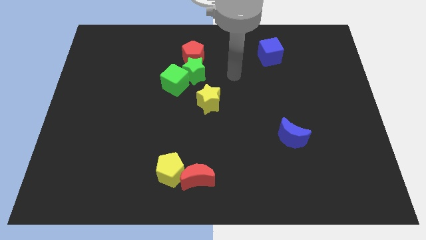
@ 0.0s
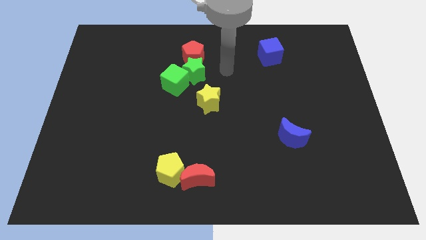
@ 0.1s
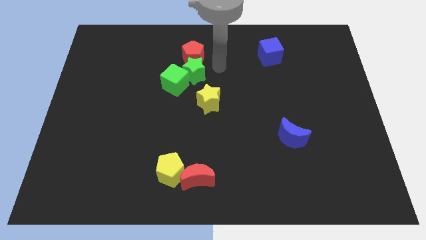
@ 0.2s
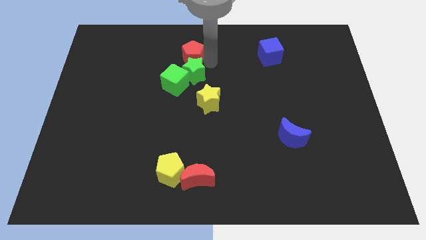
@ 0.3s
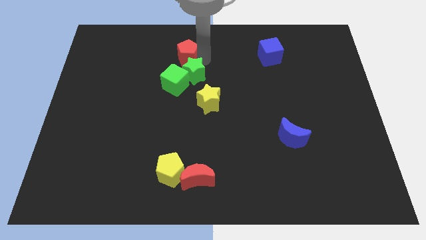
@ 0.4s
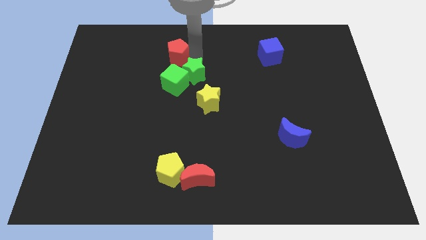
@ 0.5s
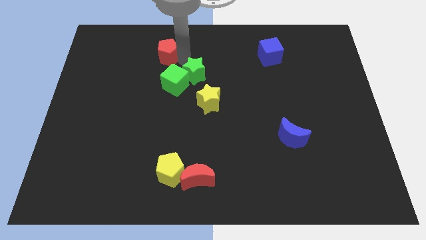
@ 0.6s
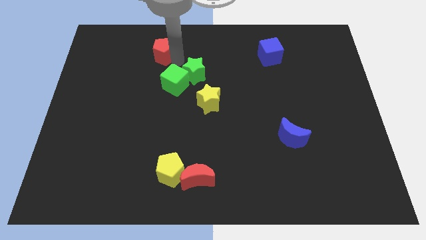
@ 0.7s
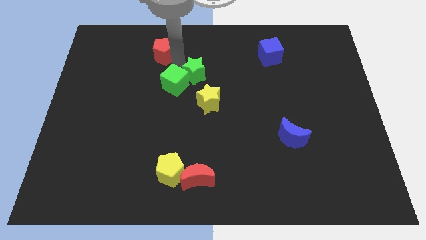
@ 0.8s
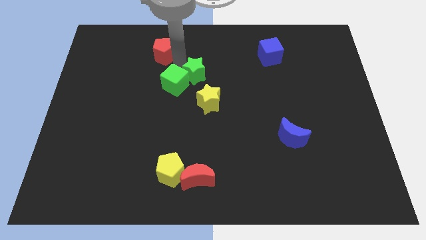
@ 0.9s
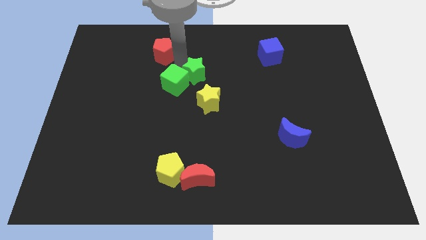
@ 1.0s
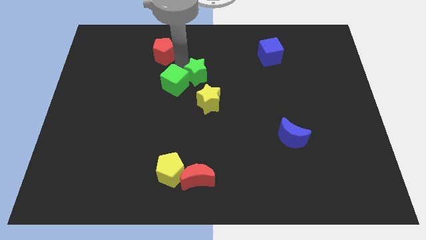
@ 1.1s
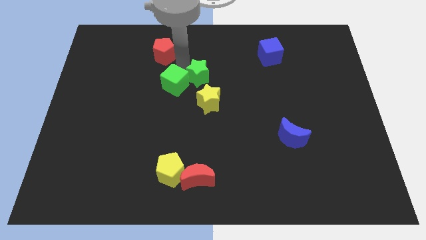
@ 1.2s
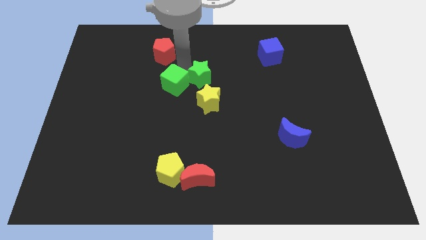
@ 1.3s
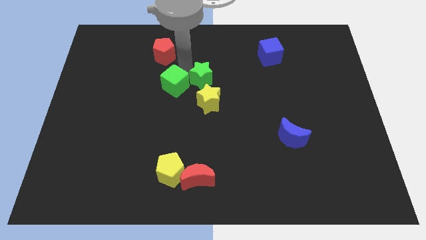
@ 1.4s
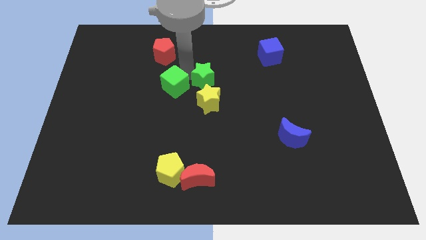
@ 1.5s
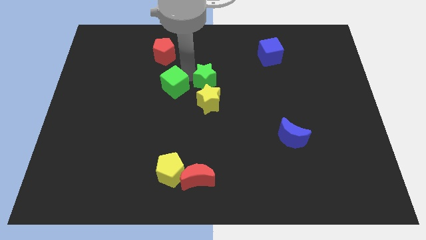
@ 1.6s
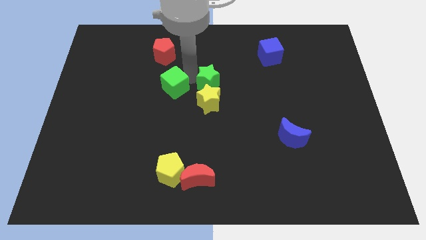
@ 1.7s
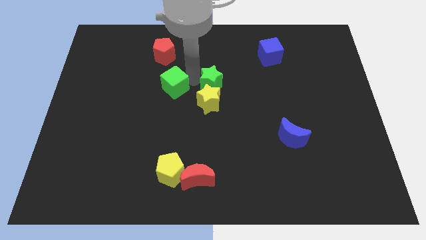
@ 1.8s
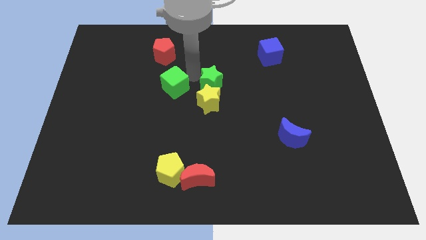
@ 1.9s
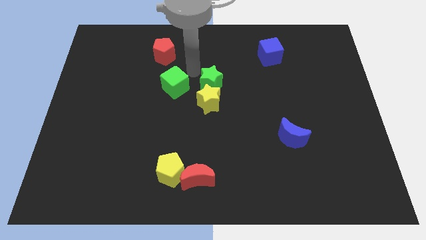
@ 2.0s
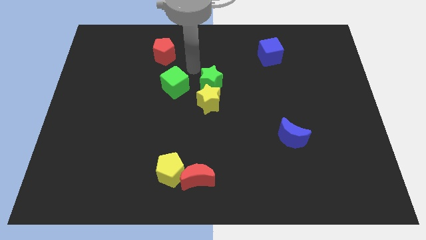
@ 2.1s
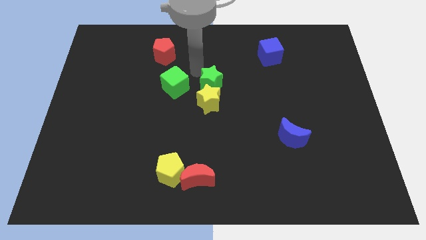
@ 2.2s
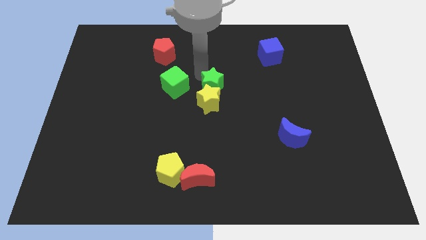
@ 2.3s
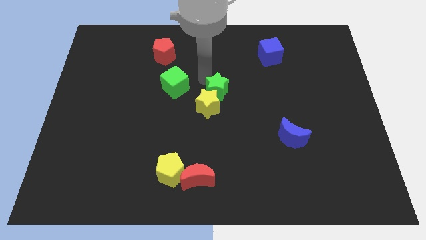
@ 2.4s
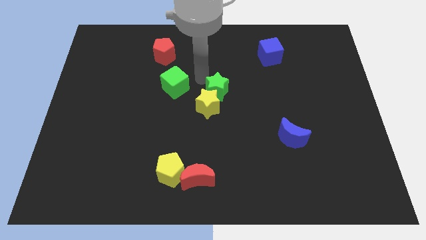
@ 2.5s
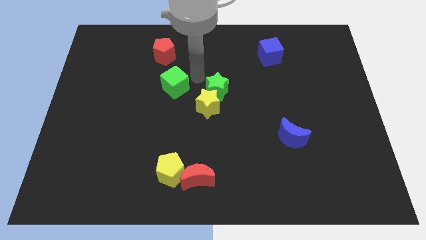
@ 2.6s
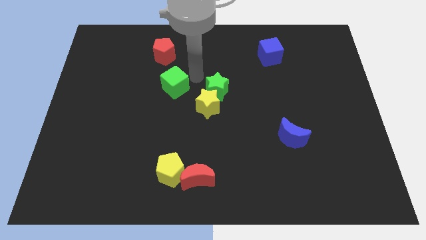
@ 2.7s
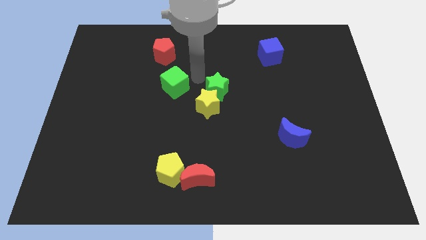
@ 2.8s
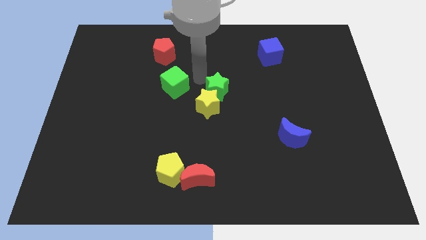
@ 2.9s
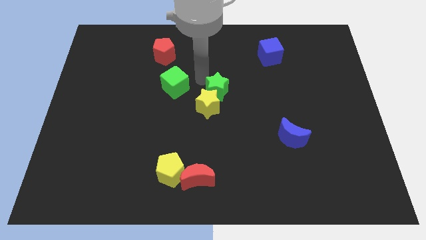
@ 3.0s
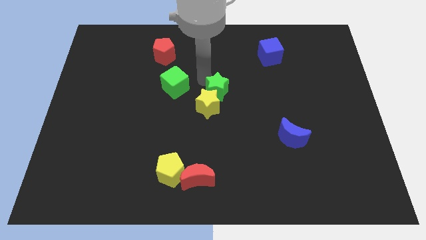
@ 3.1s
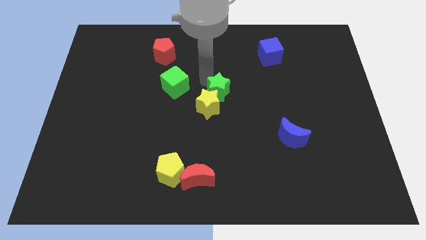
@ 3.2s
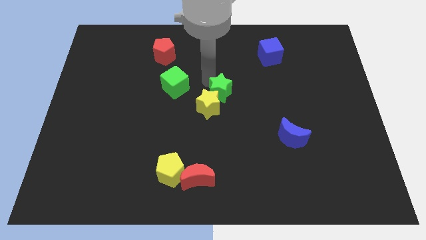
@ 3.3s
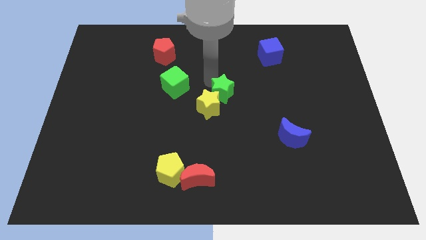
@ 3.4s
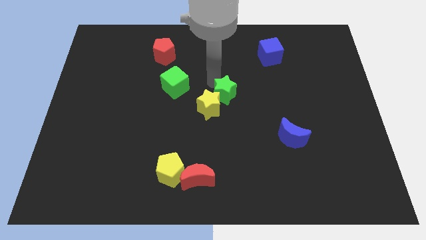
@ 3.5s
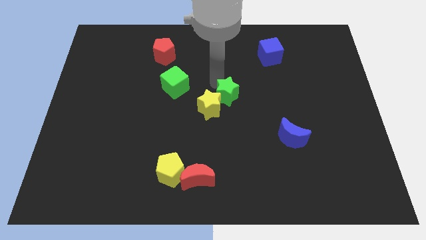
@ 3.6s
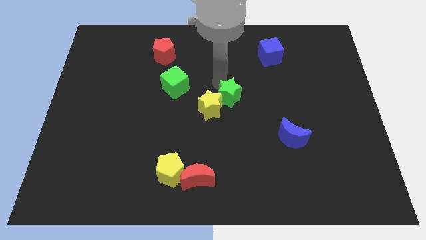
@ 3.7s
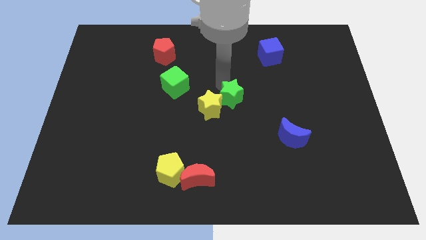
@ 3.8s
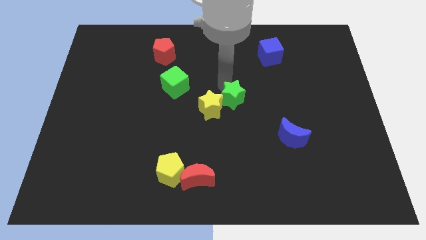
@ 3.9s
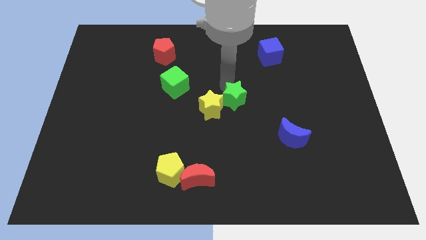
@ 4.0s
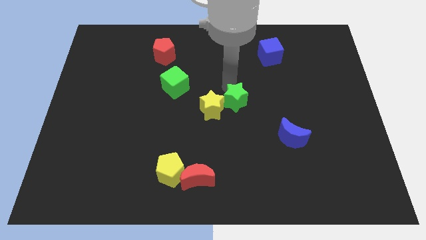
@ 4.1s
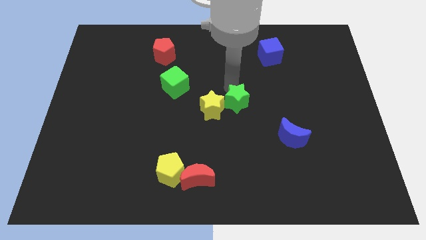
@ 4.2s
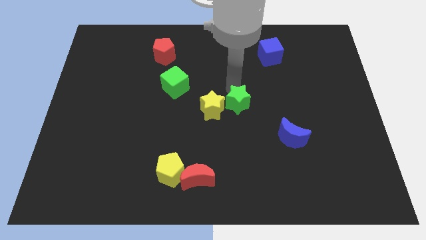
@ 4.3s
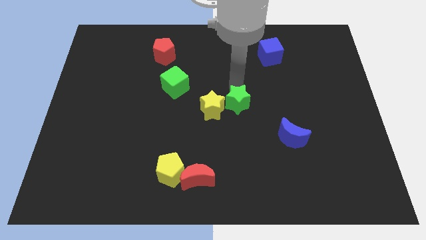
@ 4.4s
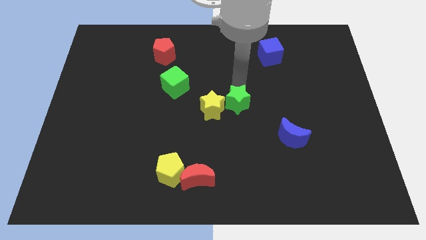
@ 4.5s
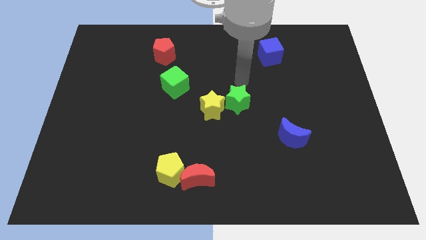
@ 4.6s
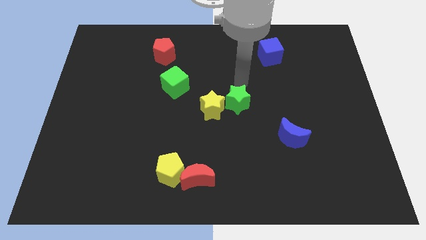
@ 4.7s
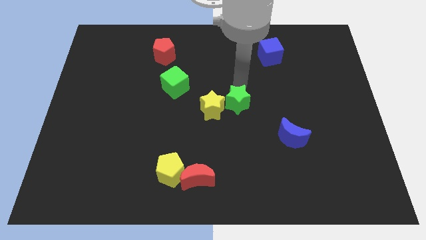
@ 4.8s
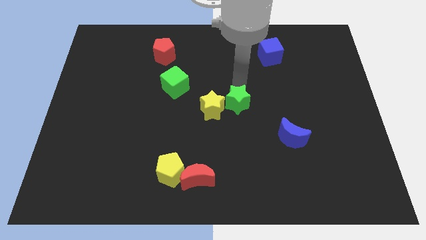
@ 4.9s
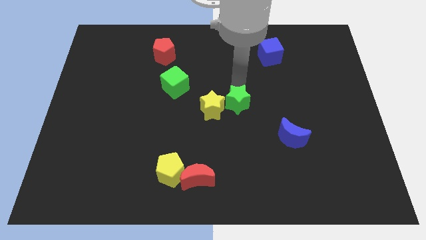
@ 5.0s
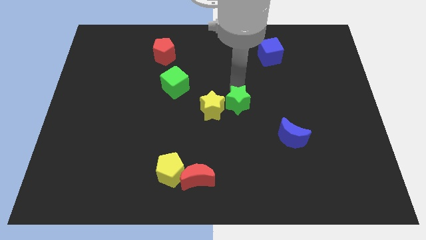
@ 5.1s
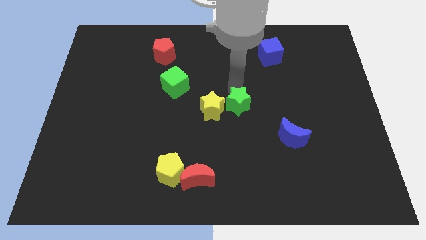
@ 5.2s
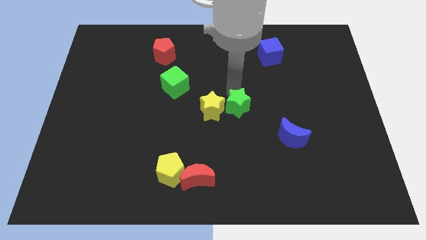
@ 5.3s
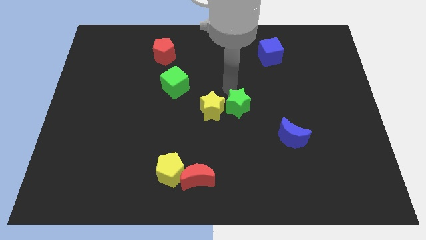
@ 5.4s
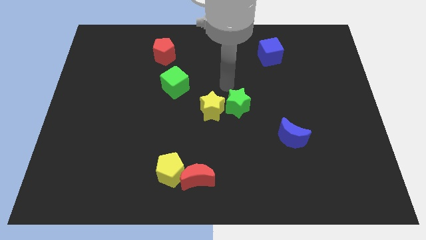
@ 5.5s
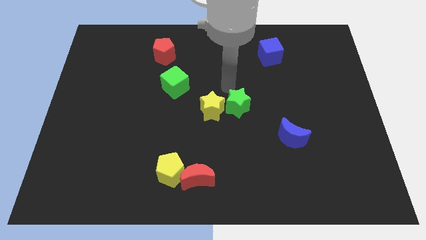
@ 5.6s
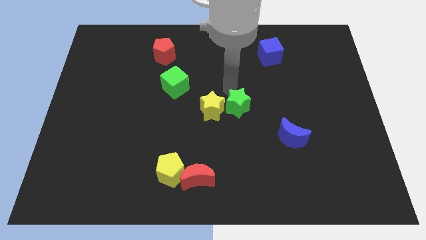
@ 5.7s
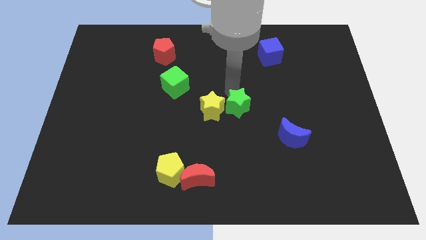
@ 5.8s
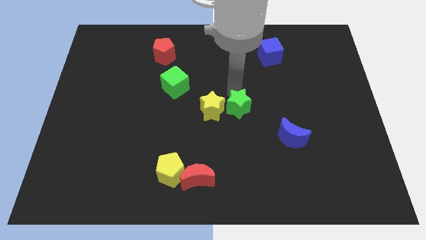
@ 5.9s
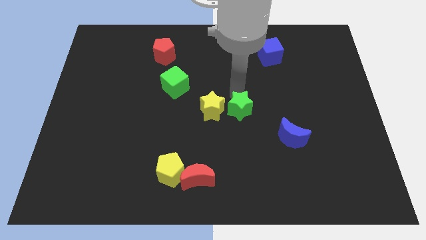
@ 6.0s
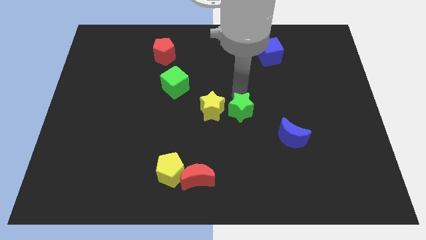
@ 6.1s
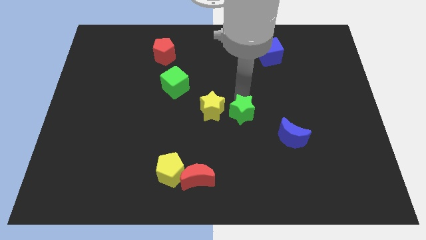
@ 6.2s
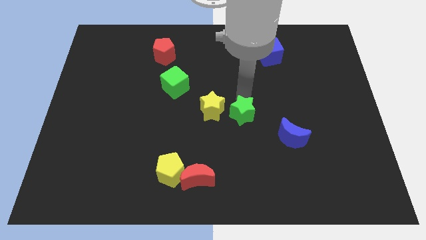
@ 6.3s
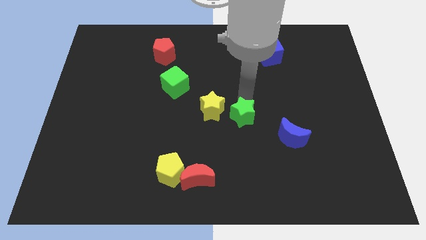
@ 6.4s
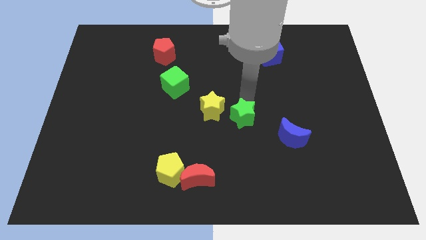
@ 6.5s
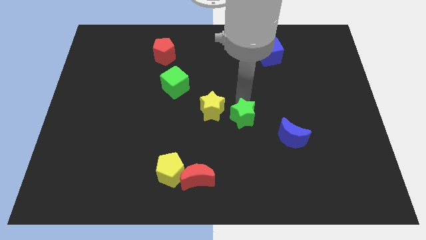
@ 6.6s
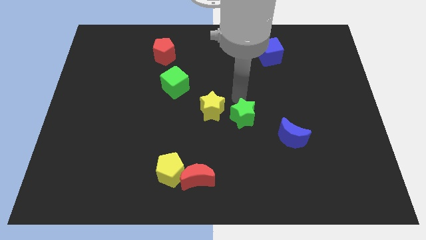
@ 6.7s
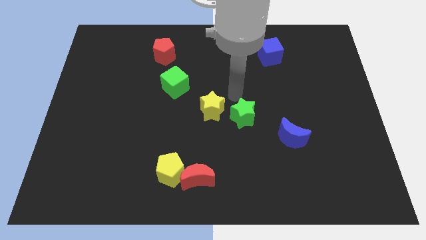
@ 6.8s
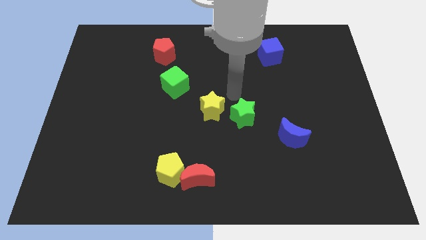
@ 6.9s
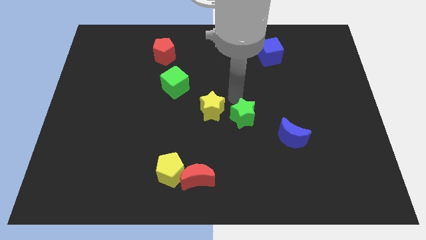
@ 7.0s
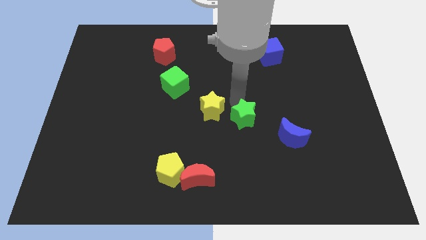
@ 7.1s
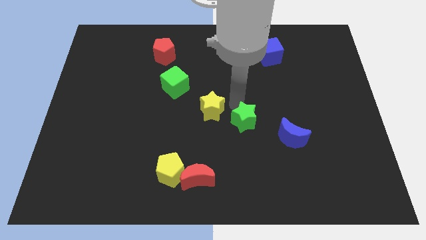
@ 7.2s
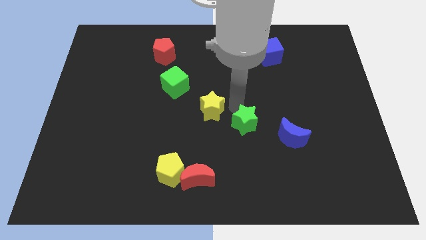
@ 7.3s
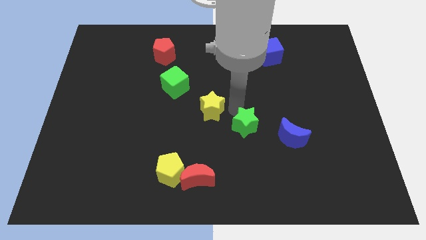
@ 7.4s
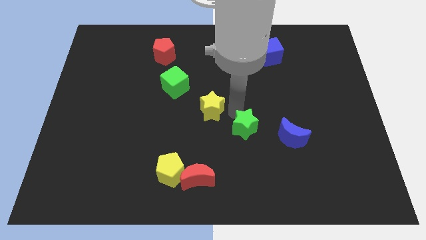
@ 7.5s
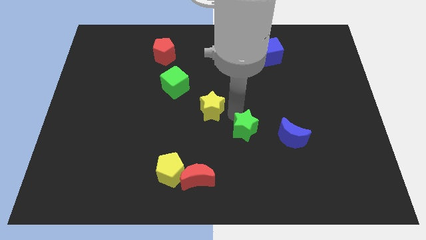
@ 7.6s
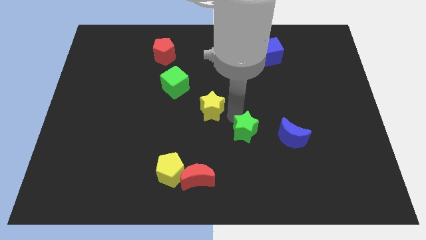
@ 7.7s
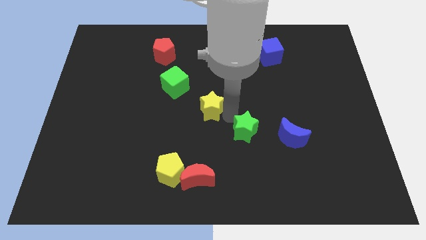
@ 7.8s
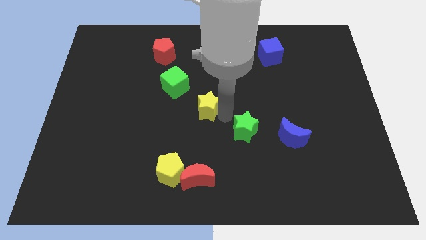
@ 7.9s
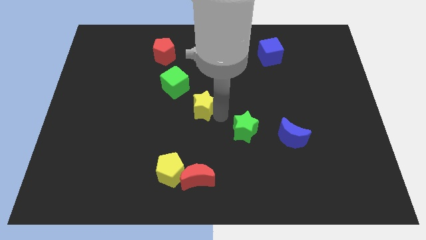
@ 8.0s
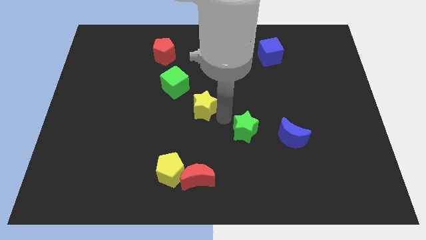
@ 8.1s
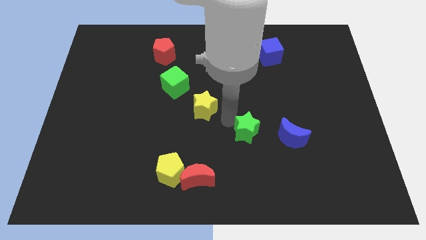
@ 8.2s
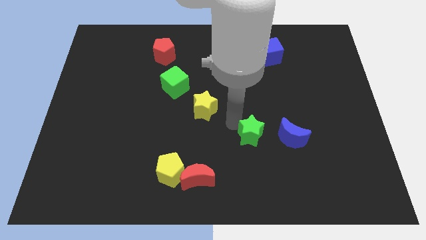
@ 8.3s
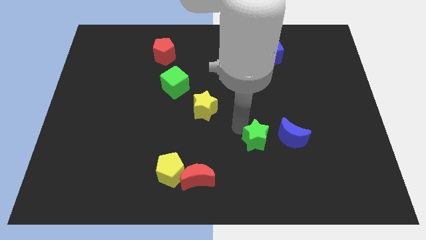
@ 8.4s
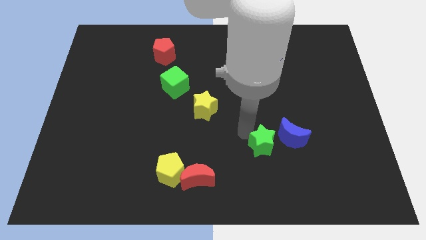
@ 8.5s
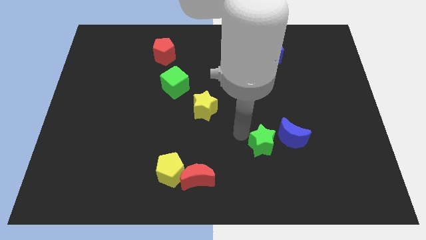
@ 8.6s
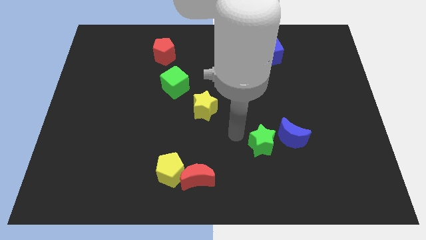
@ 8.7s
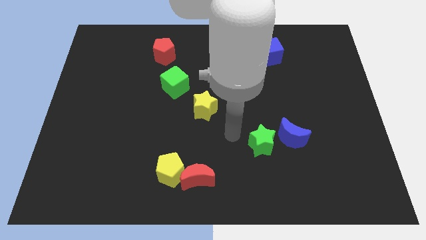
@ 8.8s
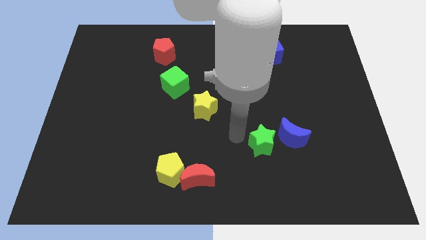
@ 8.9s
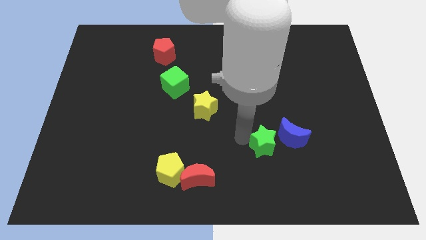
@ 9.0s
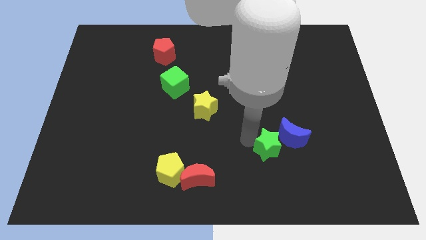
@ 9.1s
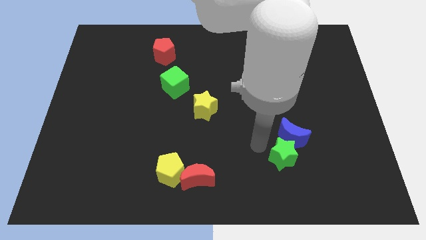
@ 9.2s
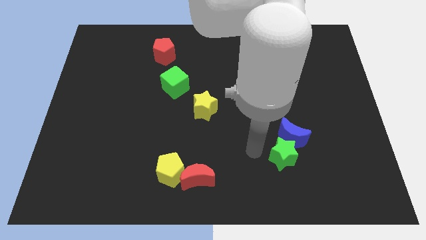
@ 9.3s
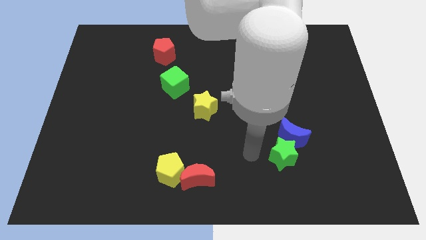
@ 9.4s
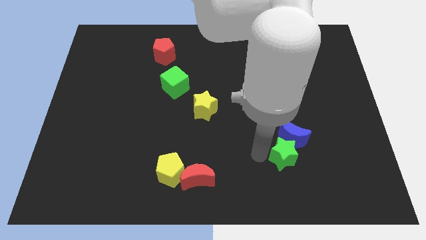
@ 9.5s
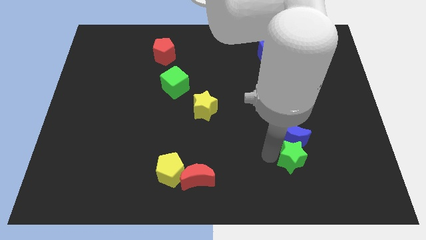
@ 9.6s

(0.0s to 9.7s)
push the green star to the bottom right of the blue moon
